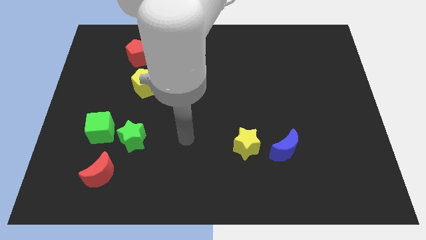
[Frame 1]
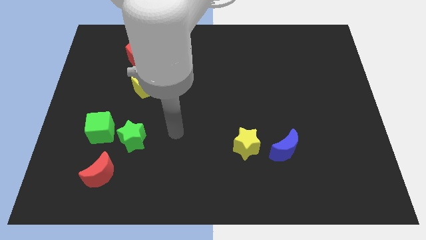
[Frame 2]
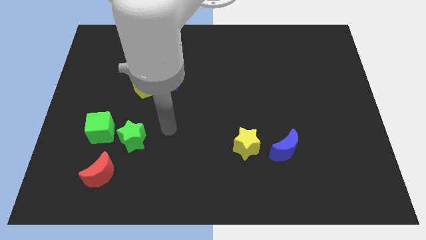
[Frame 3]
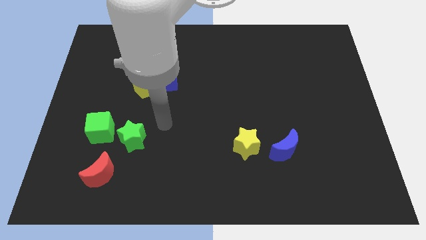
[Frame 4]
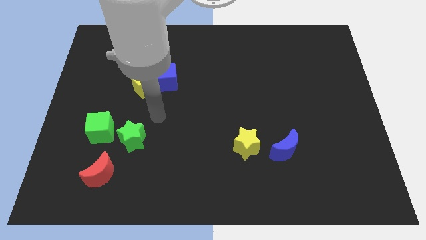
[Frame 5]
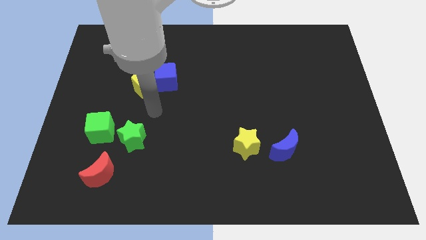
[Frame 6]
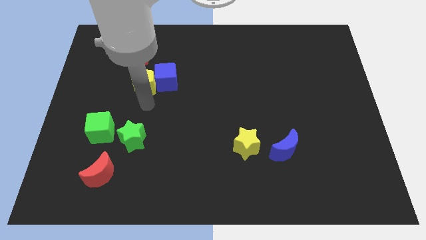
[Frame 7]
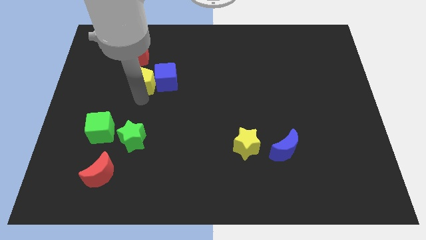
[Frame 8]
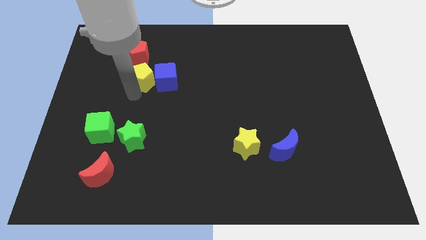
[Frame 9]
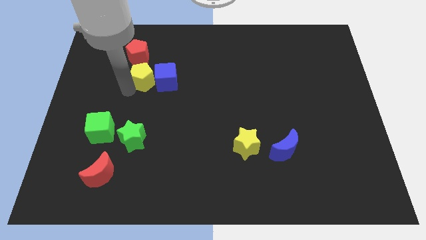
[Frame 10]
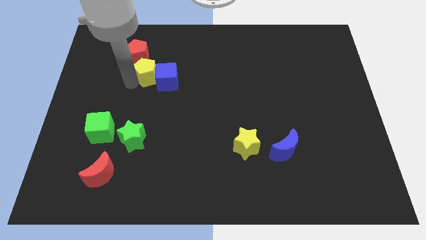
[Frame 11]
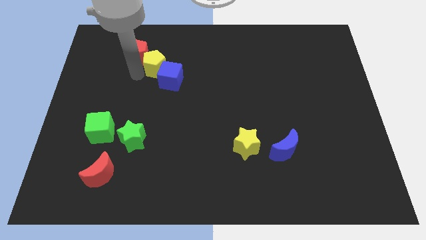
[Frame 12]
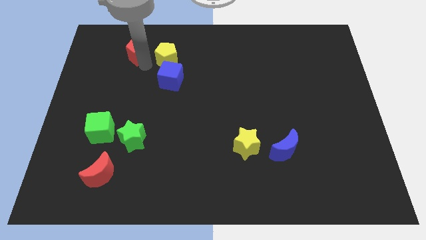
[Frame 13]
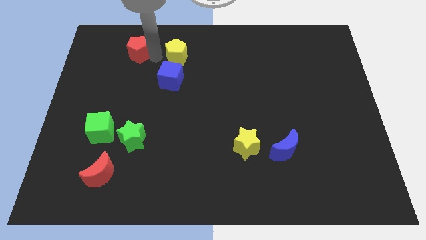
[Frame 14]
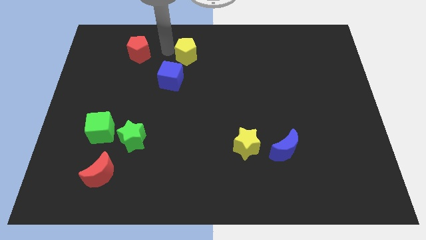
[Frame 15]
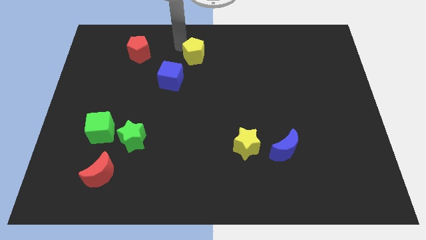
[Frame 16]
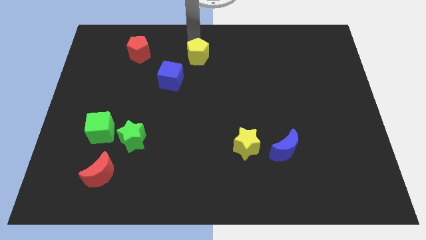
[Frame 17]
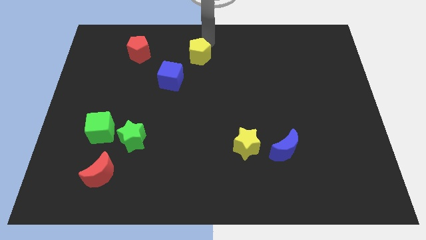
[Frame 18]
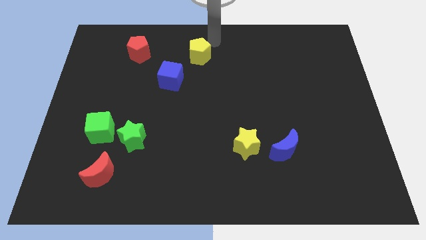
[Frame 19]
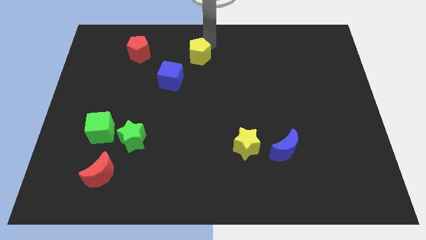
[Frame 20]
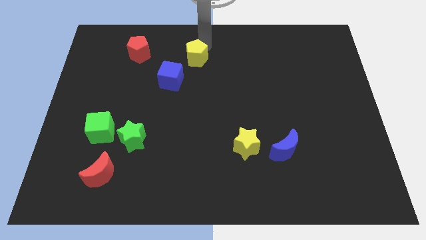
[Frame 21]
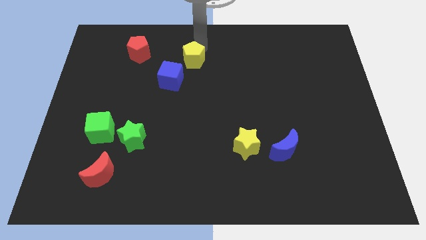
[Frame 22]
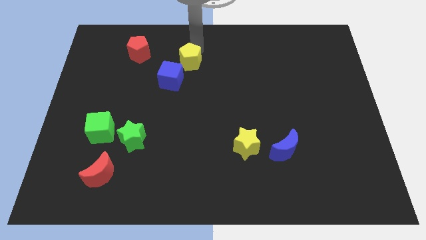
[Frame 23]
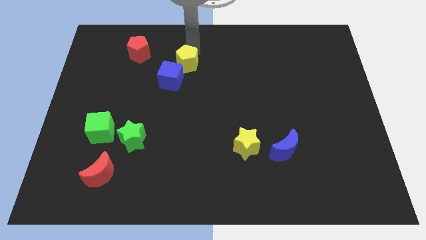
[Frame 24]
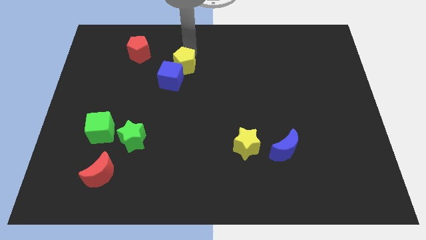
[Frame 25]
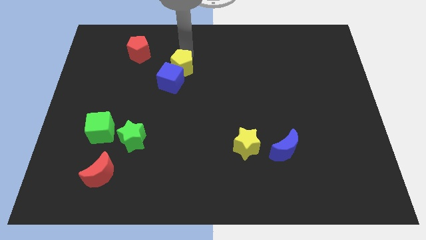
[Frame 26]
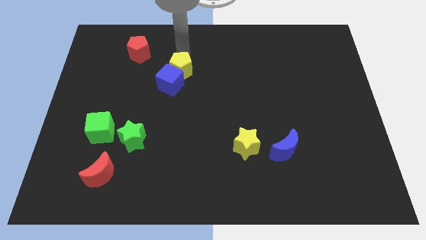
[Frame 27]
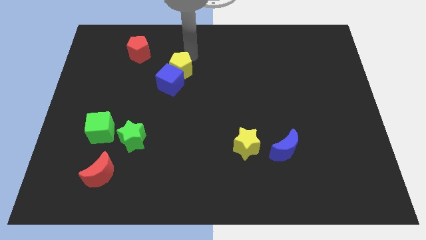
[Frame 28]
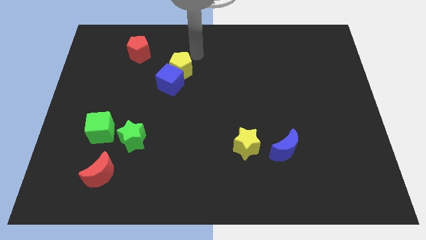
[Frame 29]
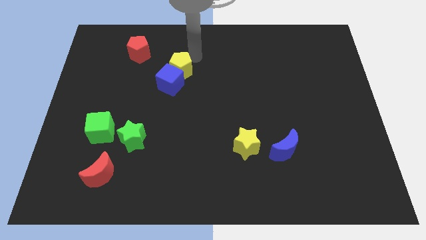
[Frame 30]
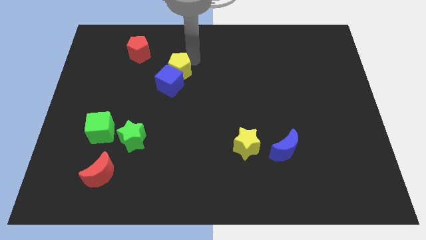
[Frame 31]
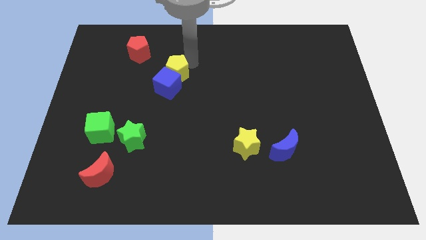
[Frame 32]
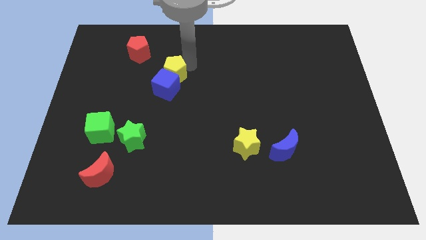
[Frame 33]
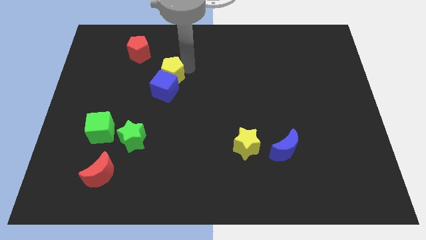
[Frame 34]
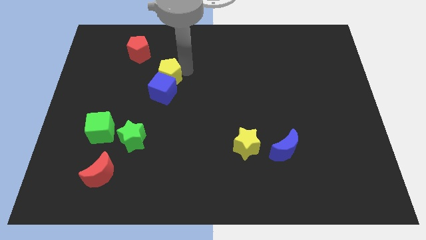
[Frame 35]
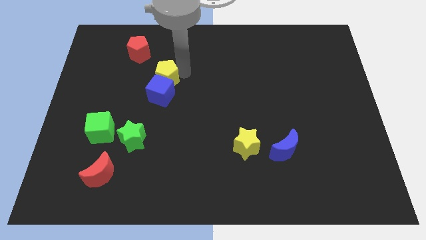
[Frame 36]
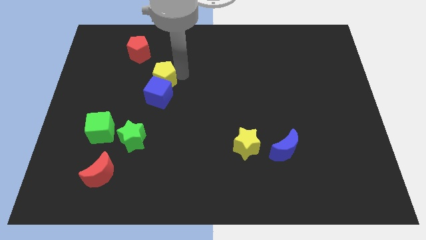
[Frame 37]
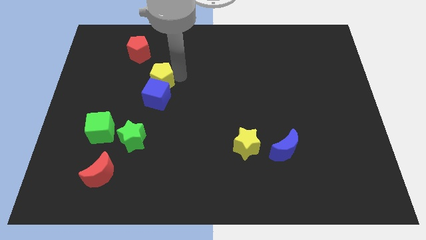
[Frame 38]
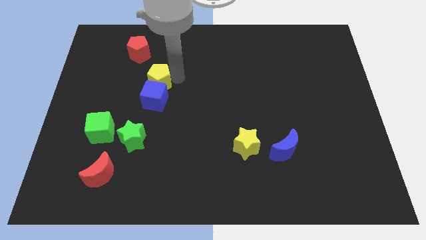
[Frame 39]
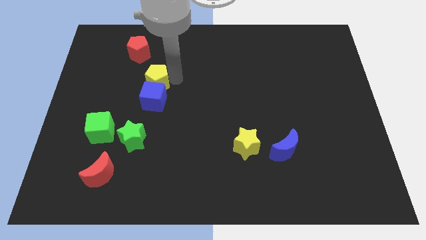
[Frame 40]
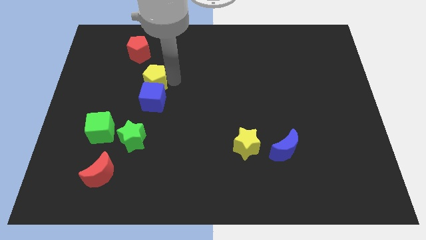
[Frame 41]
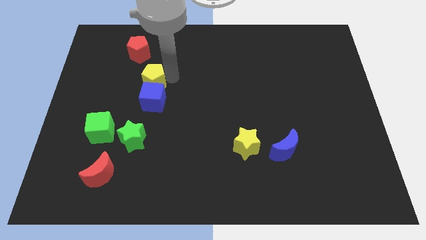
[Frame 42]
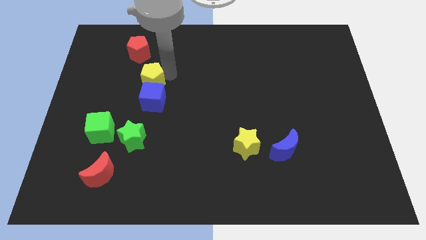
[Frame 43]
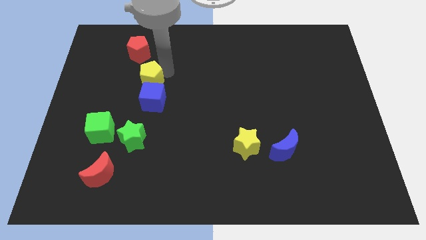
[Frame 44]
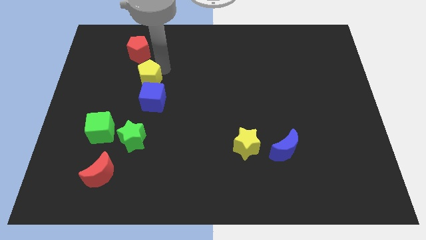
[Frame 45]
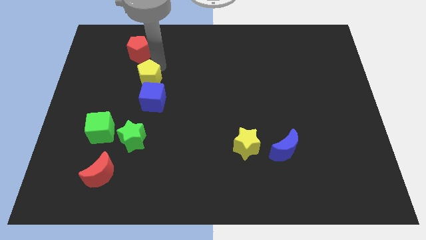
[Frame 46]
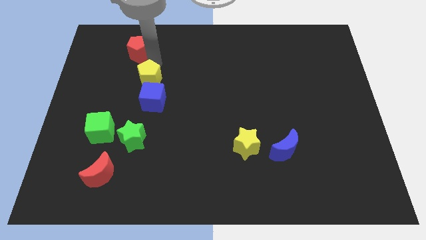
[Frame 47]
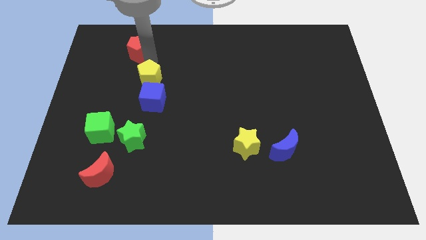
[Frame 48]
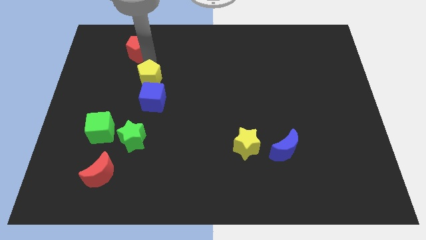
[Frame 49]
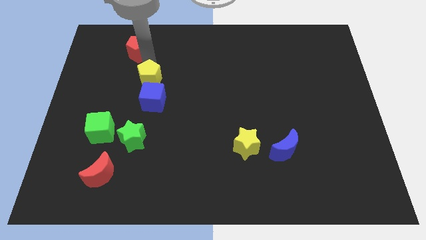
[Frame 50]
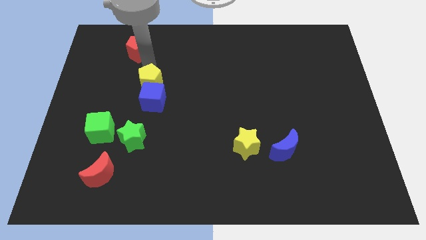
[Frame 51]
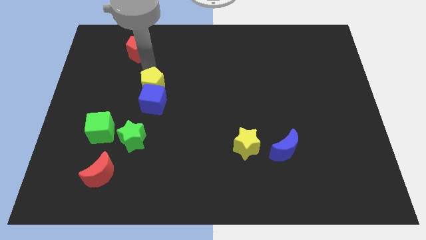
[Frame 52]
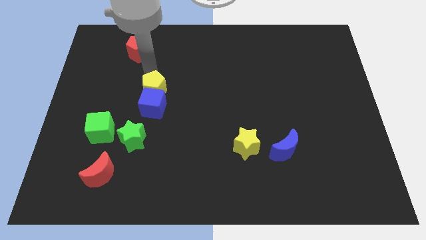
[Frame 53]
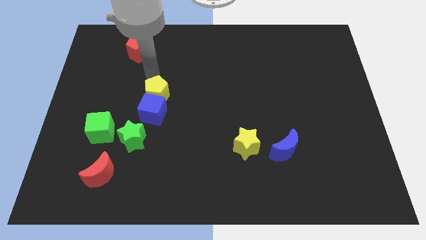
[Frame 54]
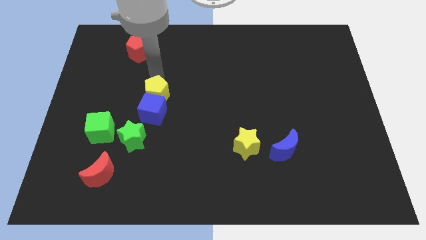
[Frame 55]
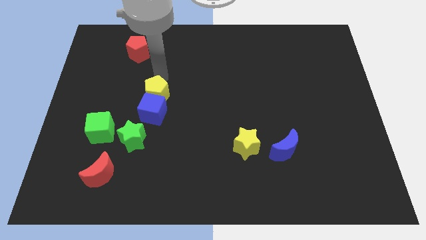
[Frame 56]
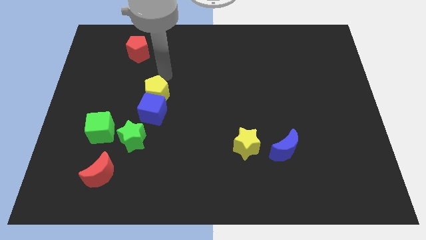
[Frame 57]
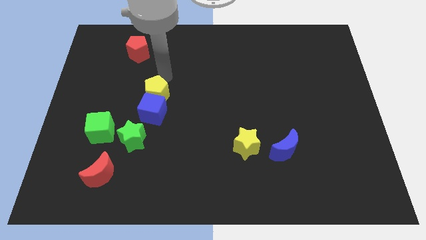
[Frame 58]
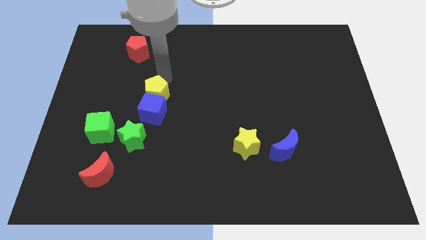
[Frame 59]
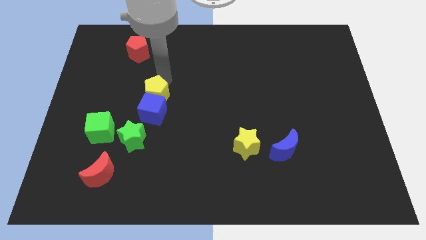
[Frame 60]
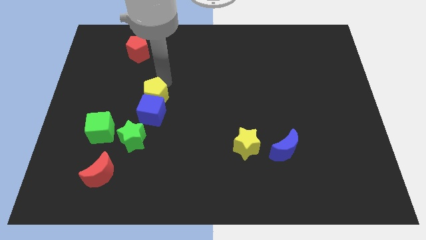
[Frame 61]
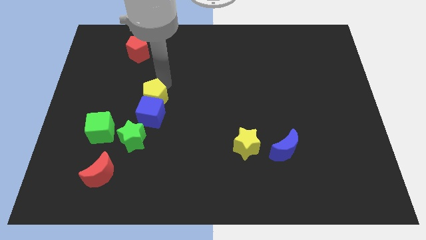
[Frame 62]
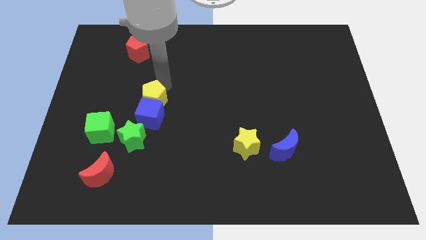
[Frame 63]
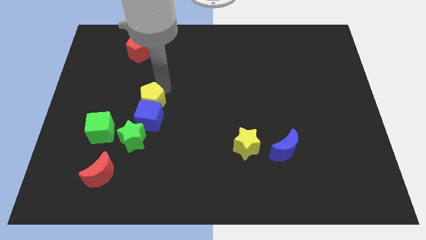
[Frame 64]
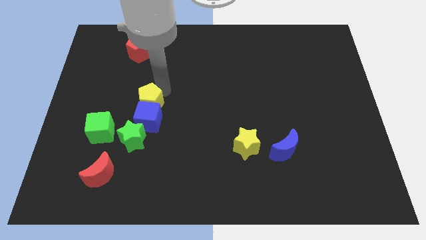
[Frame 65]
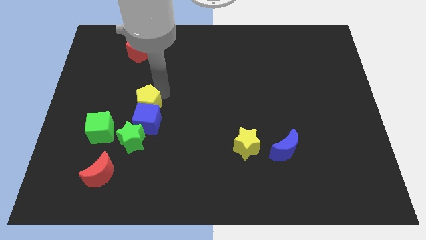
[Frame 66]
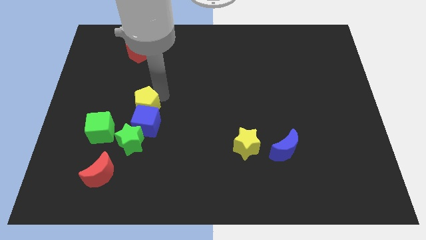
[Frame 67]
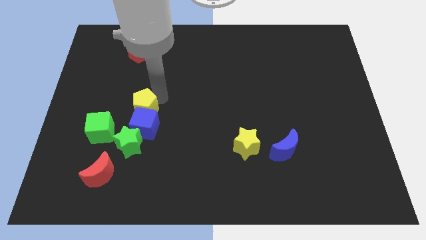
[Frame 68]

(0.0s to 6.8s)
slide the yellow pentagon a little down

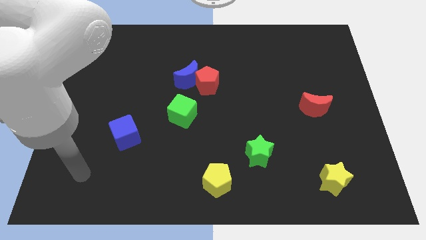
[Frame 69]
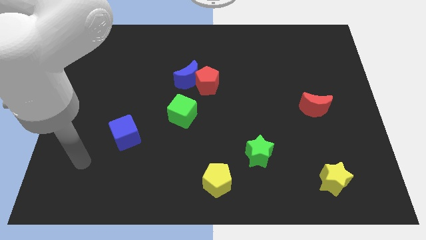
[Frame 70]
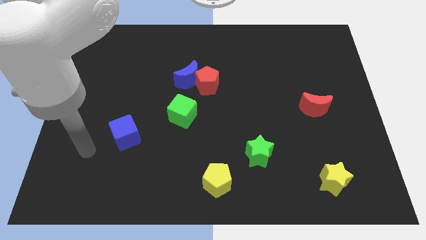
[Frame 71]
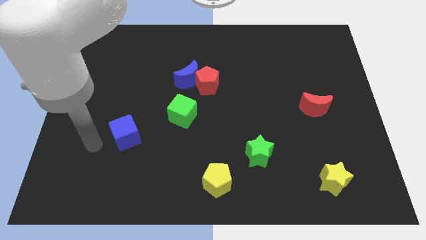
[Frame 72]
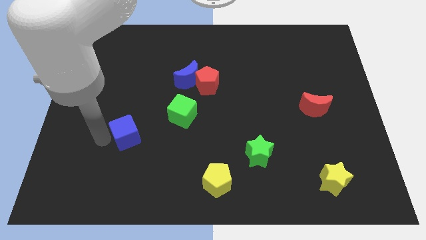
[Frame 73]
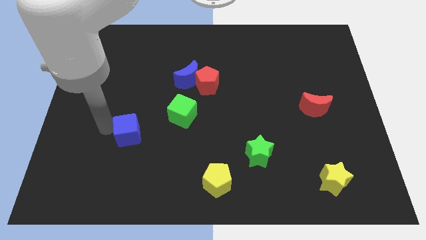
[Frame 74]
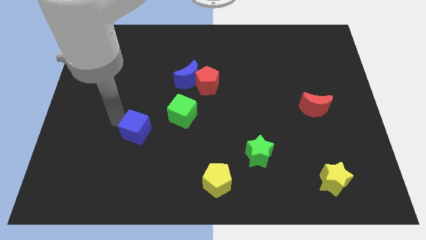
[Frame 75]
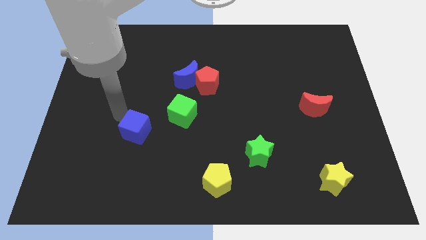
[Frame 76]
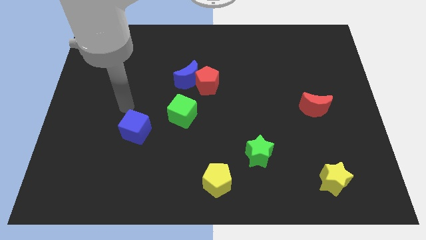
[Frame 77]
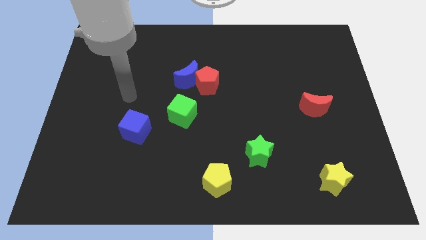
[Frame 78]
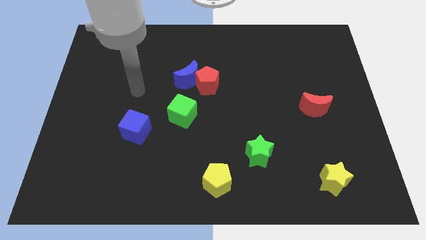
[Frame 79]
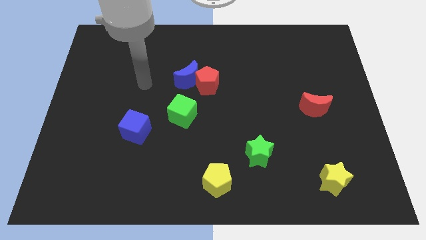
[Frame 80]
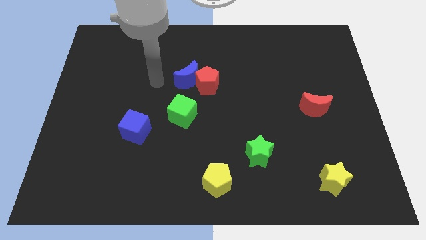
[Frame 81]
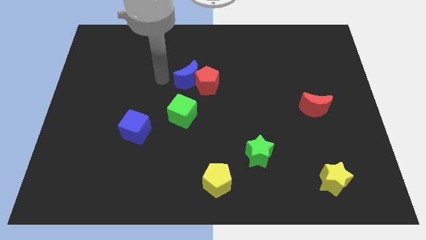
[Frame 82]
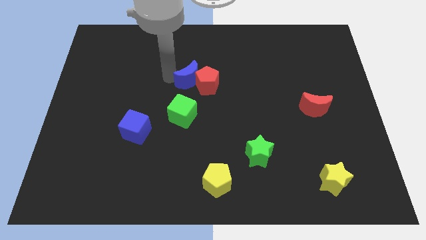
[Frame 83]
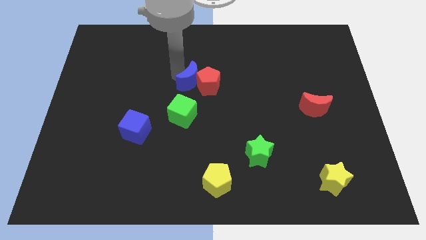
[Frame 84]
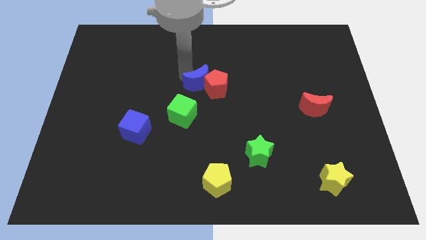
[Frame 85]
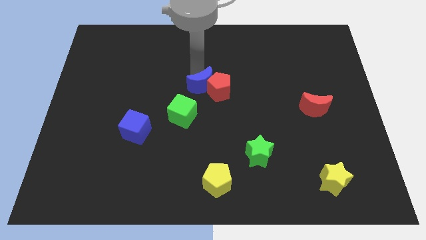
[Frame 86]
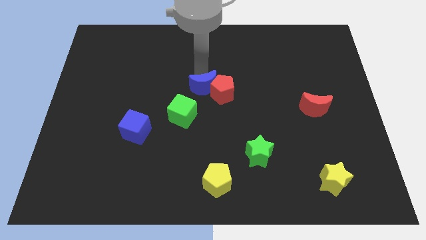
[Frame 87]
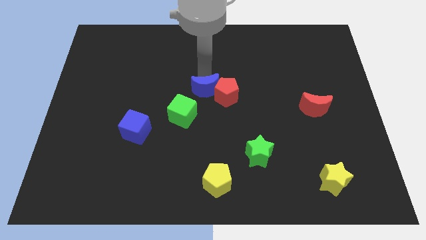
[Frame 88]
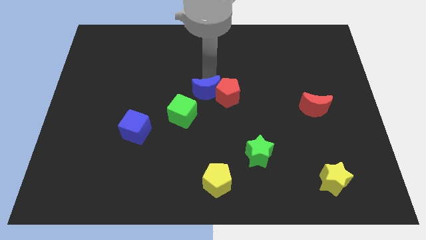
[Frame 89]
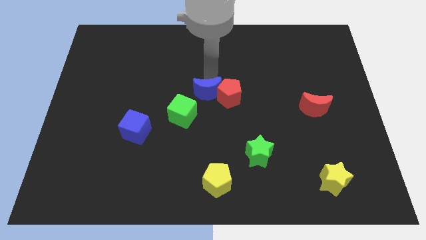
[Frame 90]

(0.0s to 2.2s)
slightly push the red pentagon down and then right
